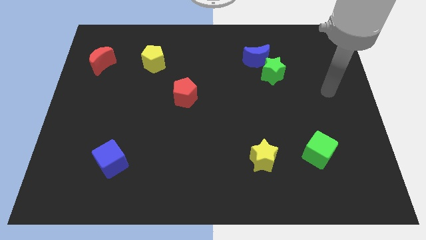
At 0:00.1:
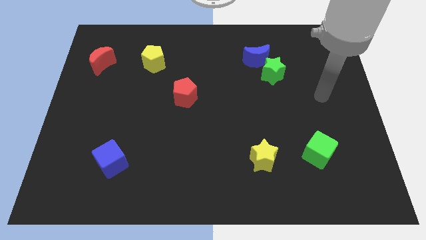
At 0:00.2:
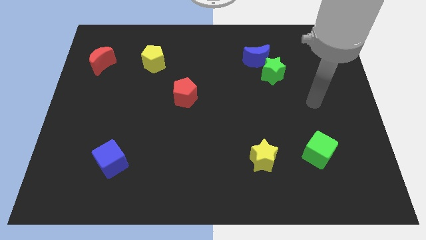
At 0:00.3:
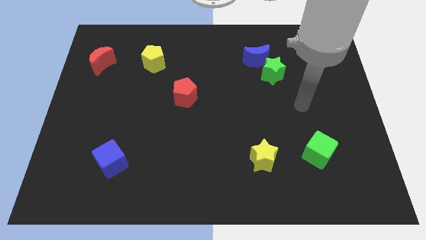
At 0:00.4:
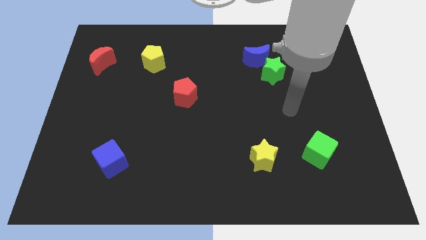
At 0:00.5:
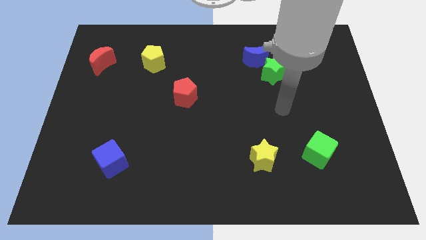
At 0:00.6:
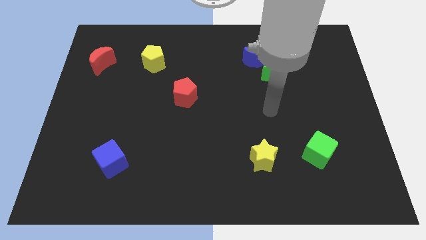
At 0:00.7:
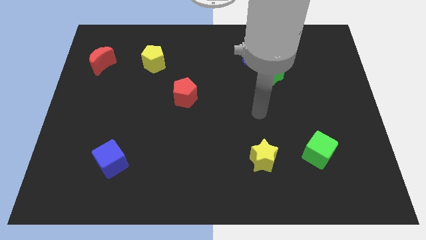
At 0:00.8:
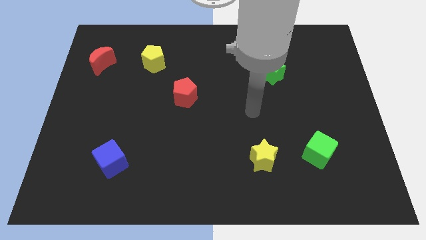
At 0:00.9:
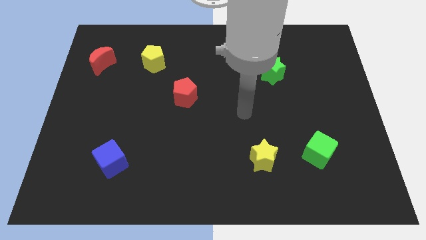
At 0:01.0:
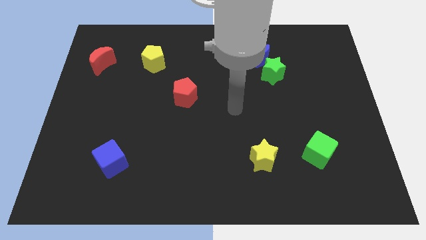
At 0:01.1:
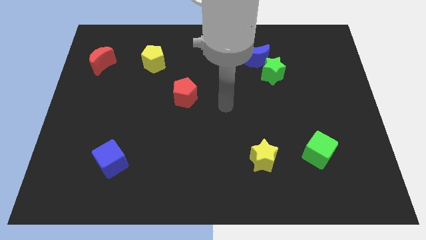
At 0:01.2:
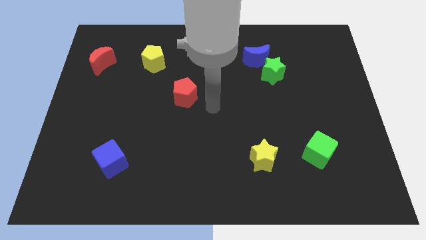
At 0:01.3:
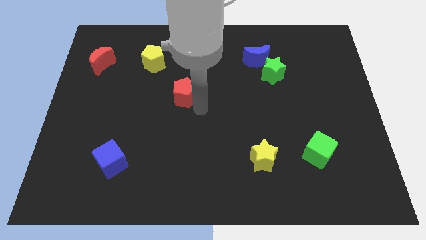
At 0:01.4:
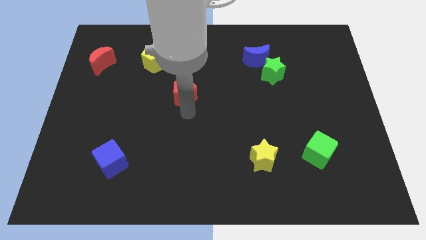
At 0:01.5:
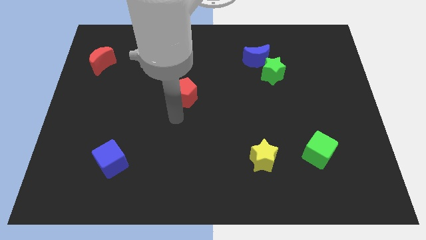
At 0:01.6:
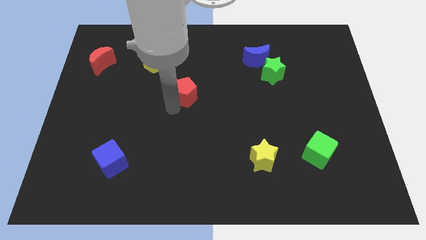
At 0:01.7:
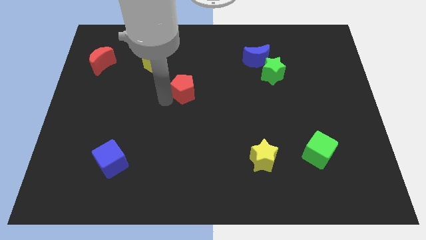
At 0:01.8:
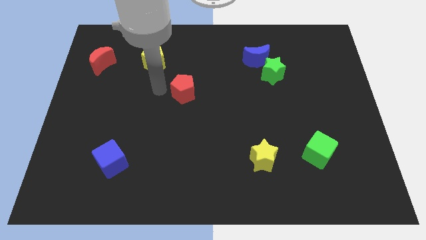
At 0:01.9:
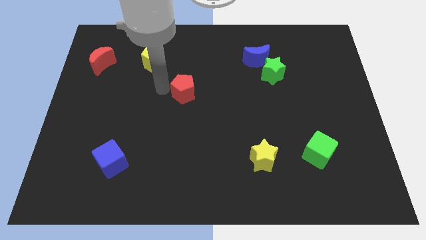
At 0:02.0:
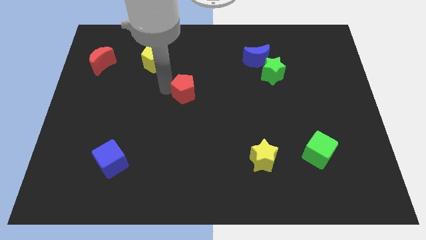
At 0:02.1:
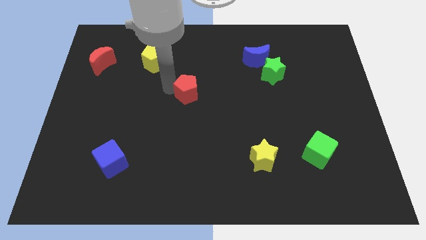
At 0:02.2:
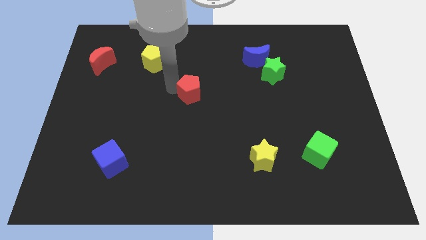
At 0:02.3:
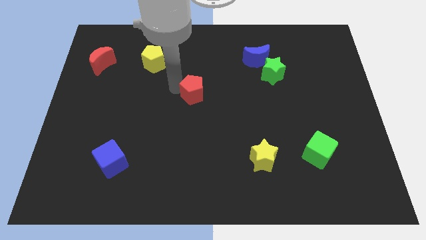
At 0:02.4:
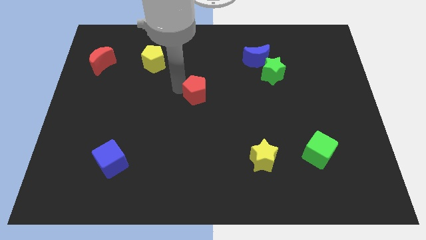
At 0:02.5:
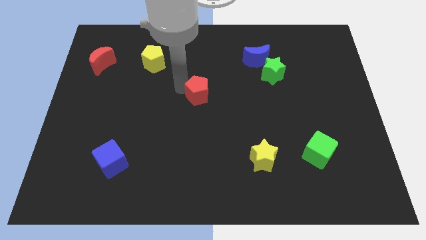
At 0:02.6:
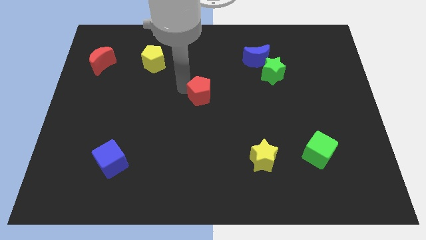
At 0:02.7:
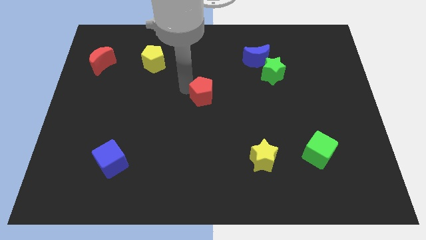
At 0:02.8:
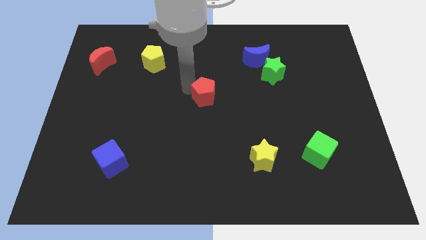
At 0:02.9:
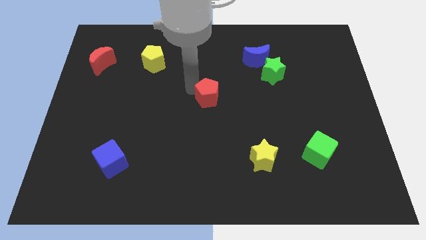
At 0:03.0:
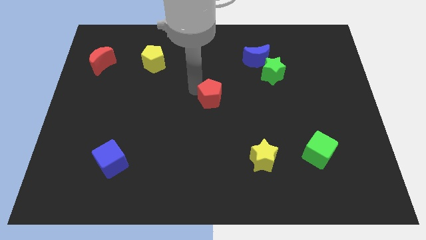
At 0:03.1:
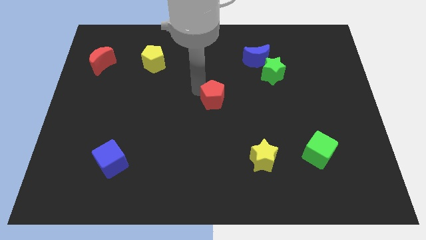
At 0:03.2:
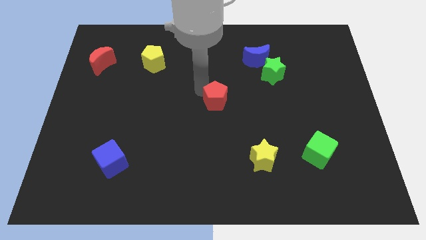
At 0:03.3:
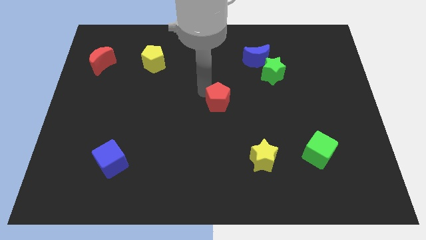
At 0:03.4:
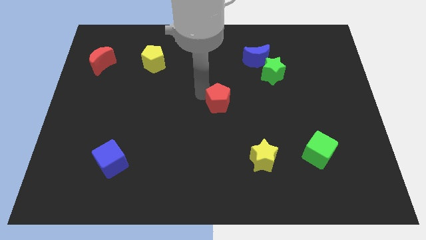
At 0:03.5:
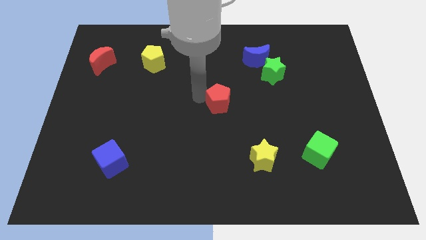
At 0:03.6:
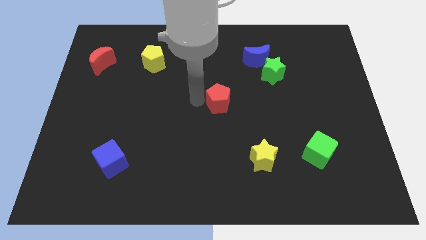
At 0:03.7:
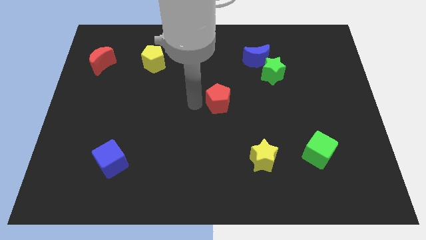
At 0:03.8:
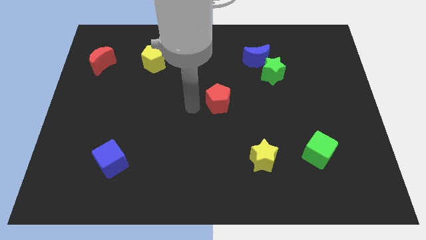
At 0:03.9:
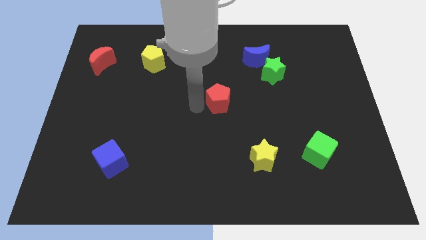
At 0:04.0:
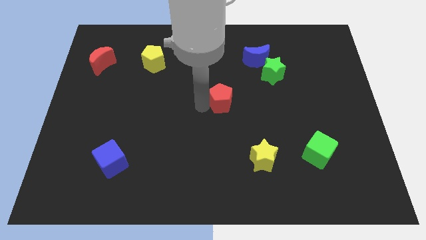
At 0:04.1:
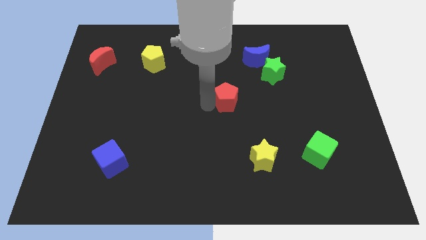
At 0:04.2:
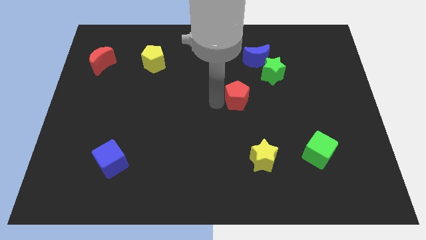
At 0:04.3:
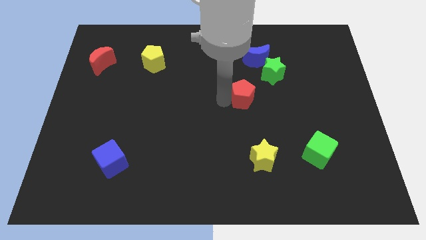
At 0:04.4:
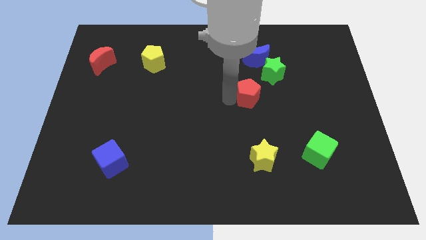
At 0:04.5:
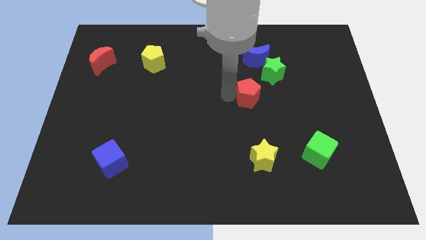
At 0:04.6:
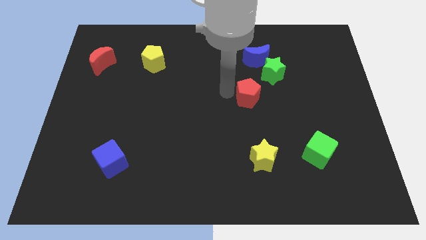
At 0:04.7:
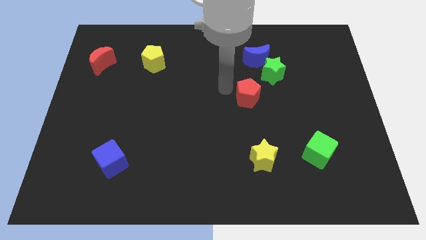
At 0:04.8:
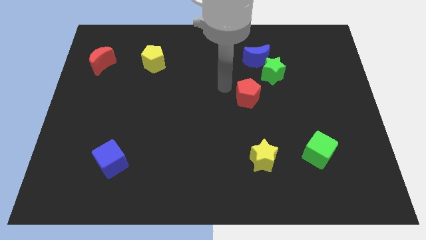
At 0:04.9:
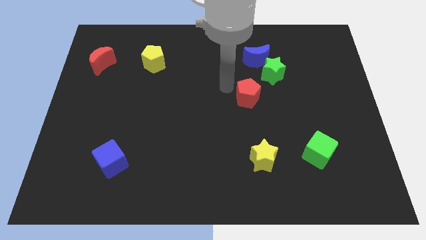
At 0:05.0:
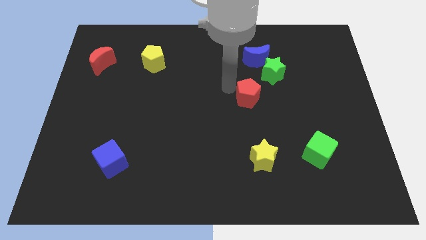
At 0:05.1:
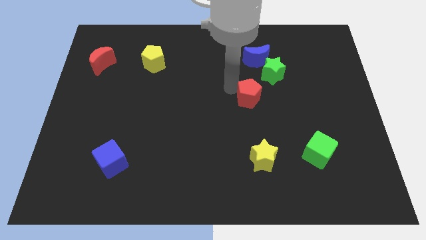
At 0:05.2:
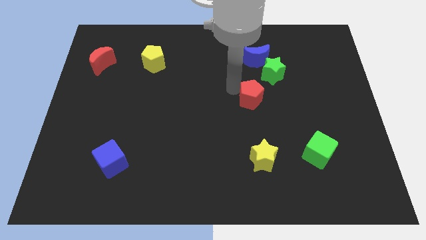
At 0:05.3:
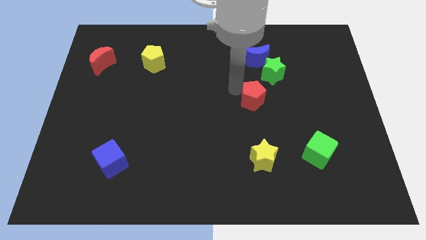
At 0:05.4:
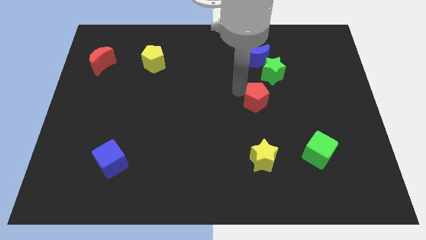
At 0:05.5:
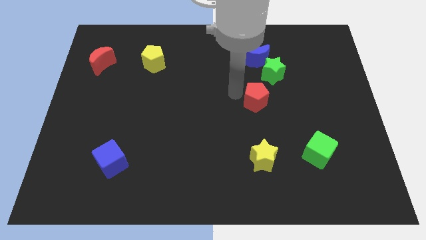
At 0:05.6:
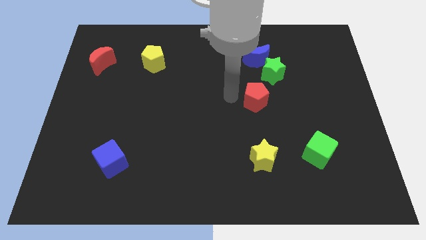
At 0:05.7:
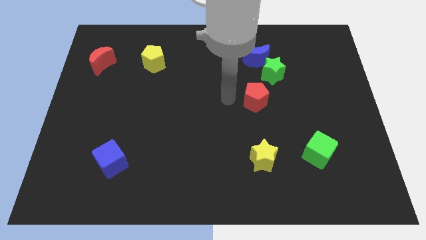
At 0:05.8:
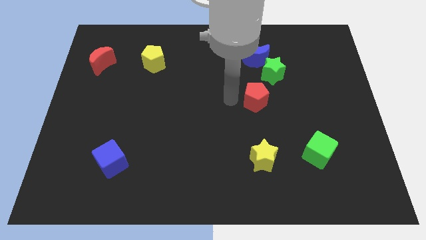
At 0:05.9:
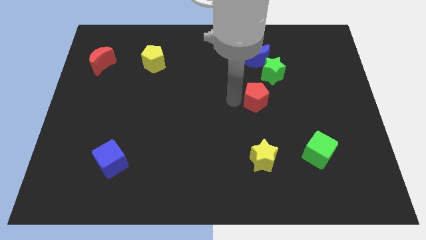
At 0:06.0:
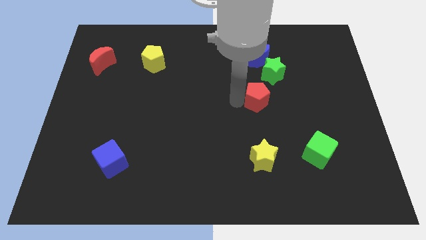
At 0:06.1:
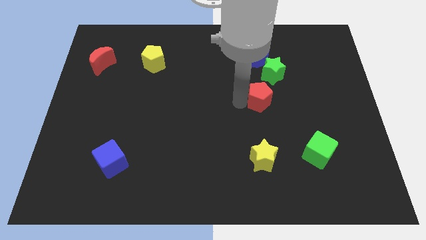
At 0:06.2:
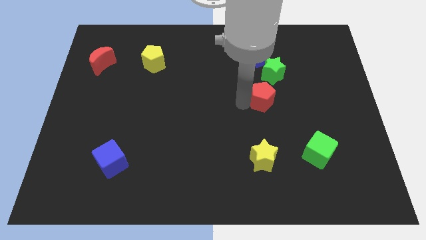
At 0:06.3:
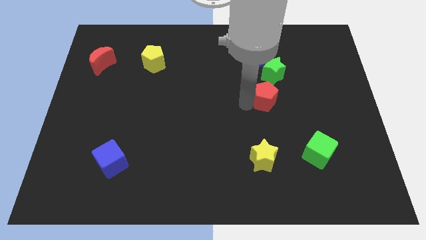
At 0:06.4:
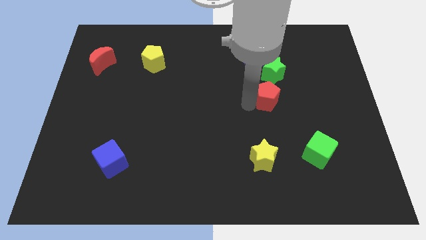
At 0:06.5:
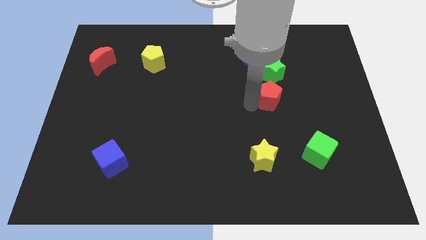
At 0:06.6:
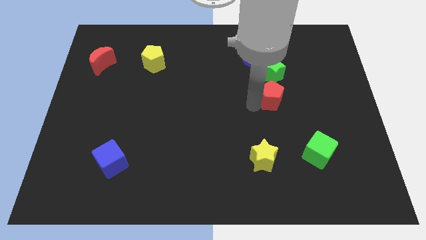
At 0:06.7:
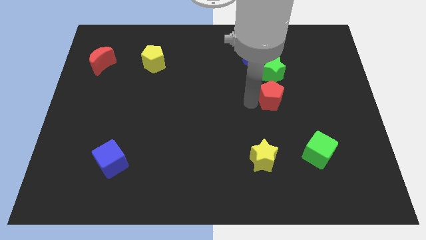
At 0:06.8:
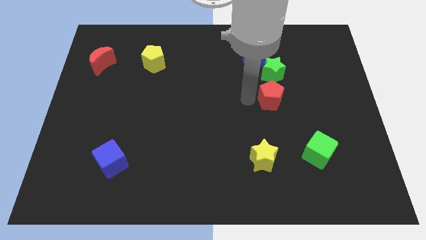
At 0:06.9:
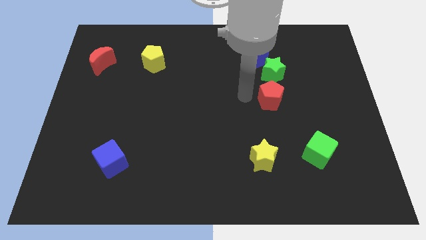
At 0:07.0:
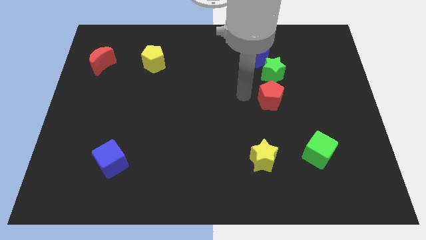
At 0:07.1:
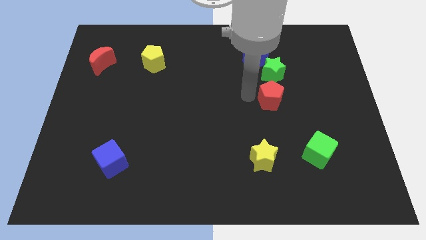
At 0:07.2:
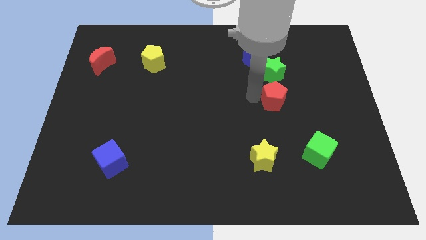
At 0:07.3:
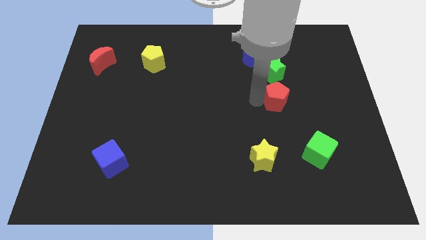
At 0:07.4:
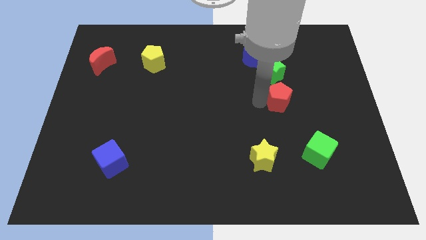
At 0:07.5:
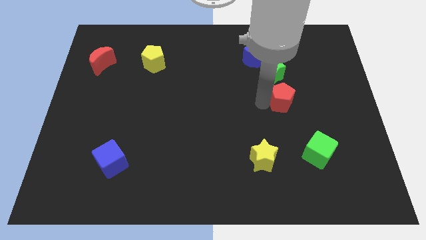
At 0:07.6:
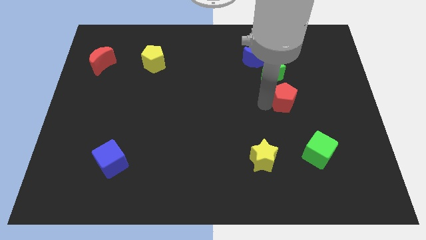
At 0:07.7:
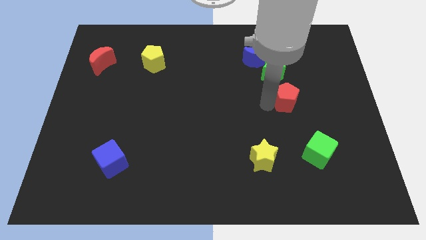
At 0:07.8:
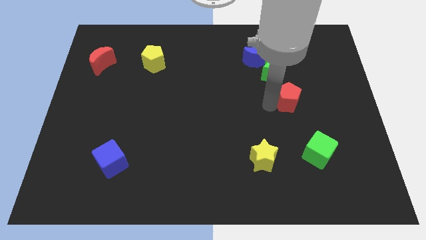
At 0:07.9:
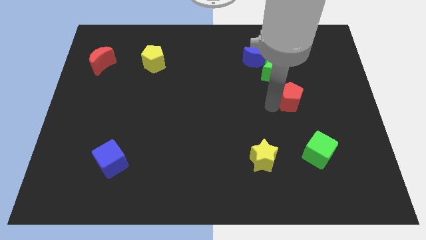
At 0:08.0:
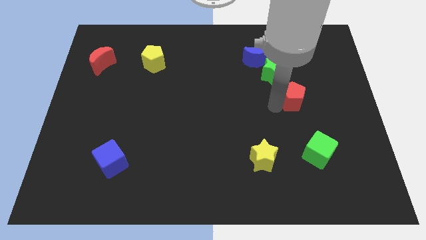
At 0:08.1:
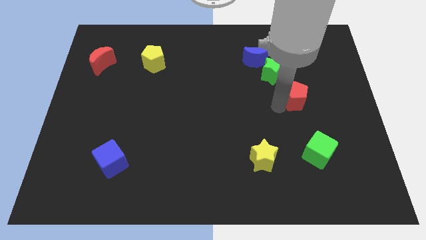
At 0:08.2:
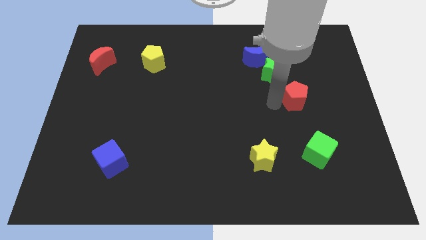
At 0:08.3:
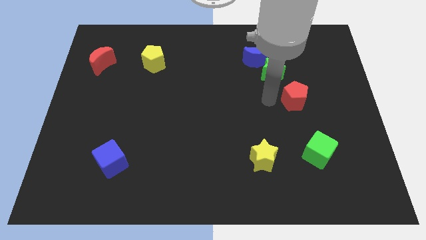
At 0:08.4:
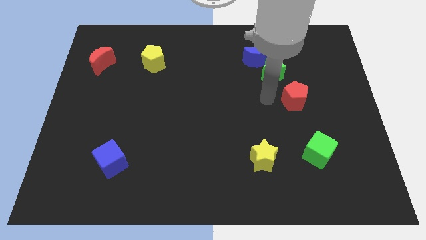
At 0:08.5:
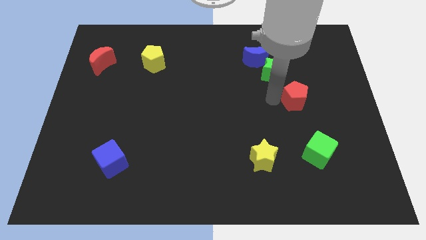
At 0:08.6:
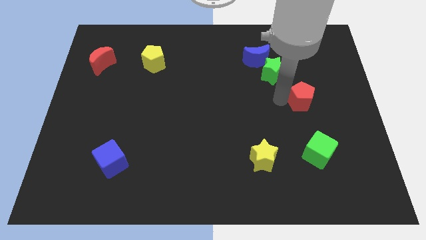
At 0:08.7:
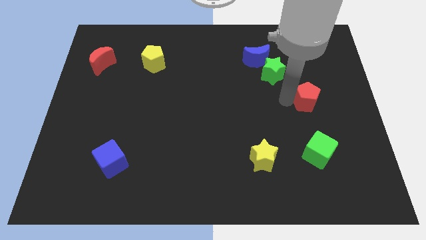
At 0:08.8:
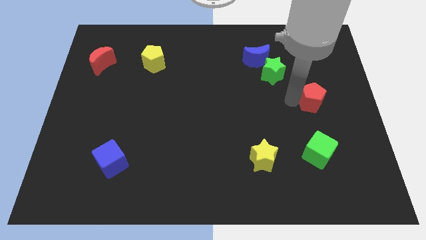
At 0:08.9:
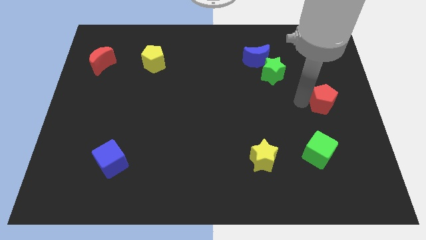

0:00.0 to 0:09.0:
move the red pentagon to the right side of the board
